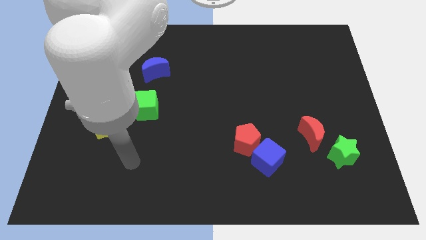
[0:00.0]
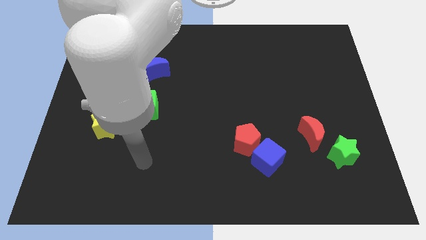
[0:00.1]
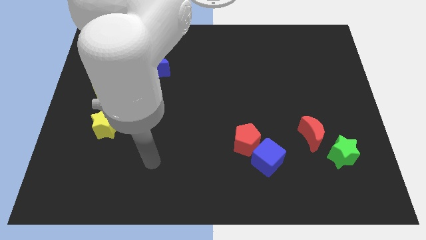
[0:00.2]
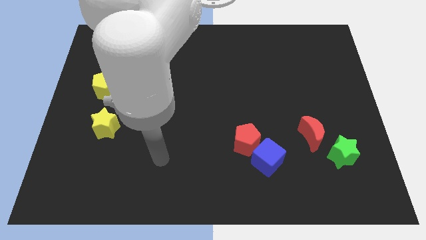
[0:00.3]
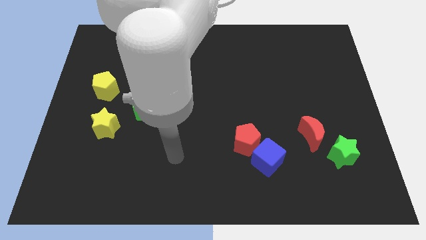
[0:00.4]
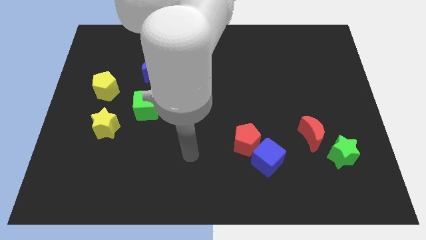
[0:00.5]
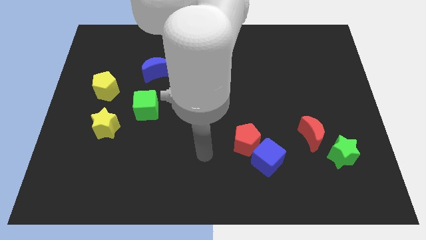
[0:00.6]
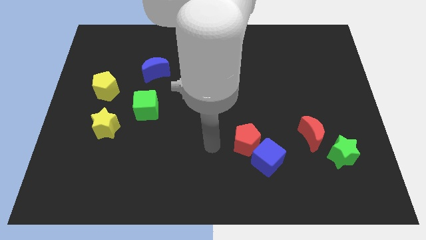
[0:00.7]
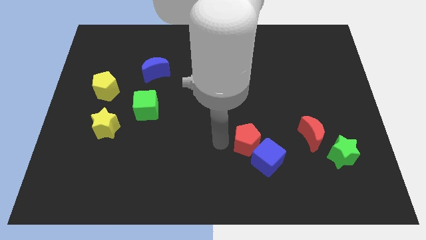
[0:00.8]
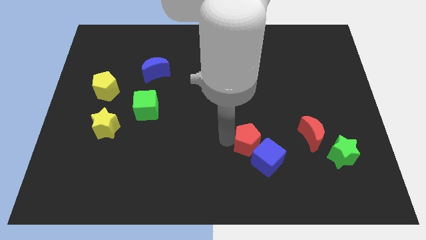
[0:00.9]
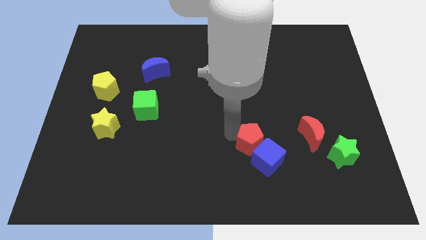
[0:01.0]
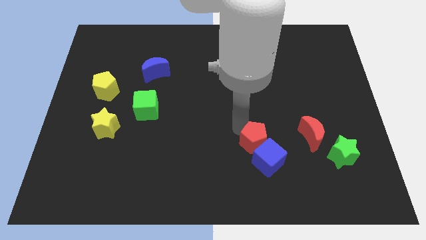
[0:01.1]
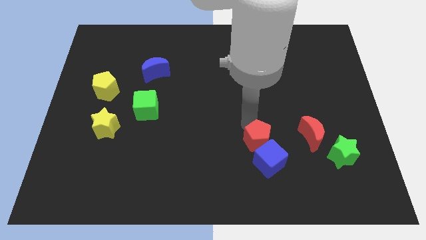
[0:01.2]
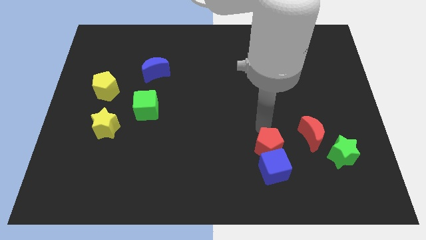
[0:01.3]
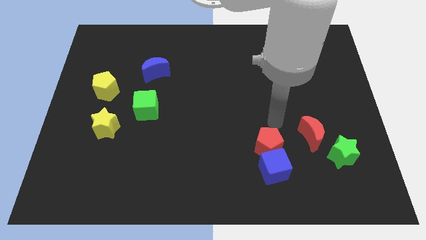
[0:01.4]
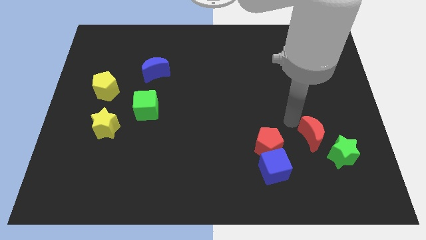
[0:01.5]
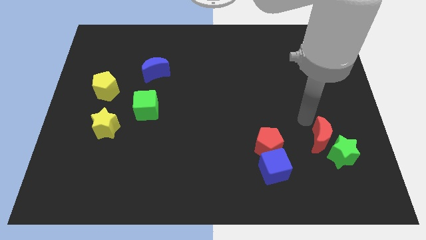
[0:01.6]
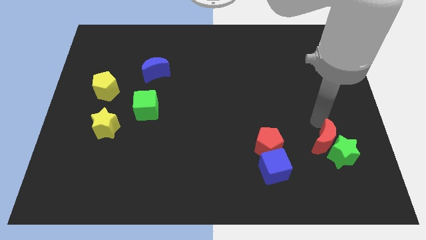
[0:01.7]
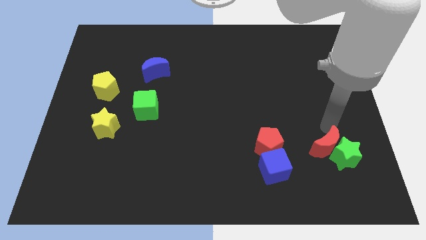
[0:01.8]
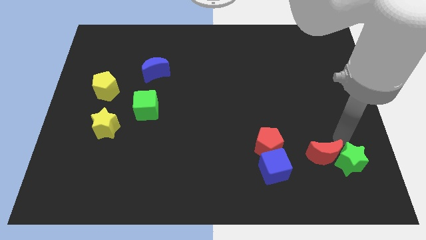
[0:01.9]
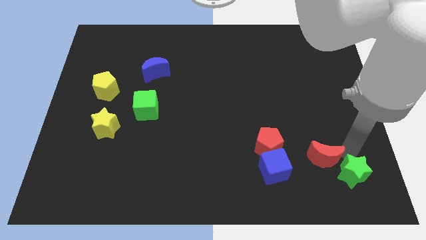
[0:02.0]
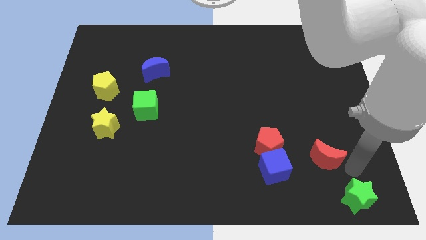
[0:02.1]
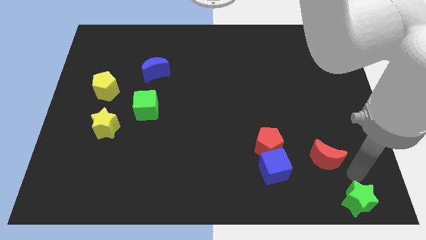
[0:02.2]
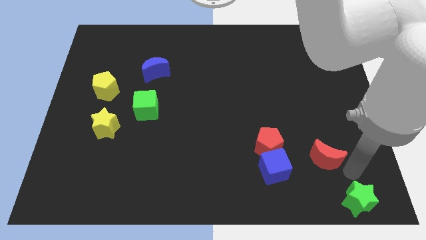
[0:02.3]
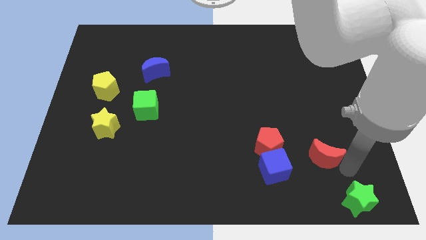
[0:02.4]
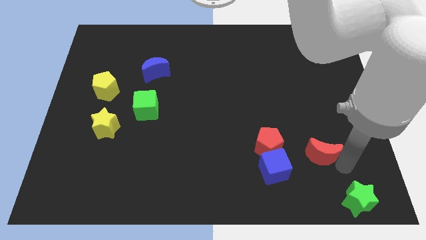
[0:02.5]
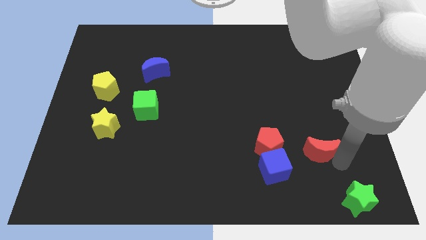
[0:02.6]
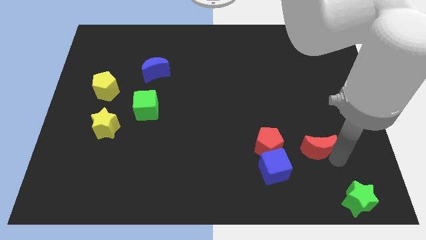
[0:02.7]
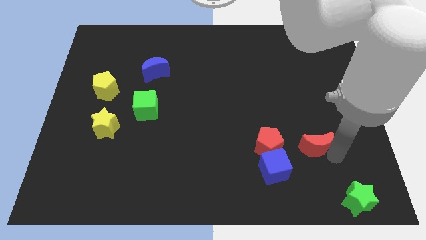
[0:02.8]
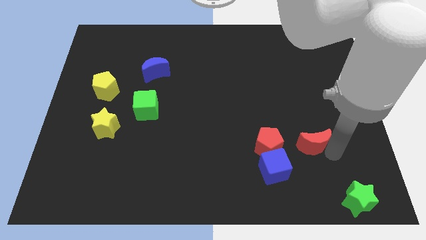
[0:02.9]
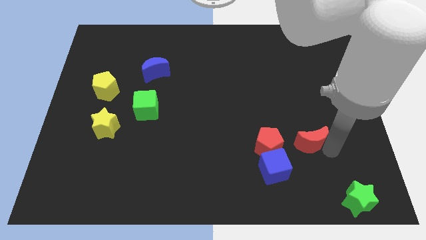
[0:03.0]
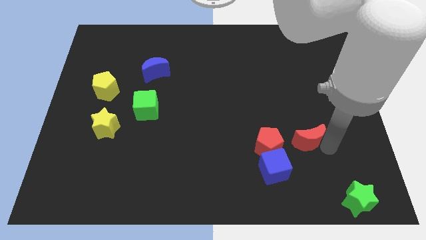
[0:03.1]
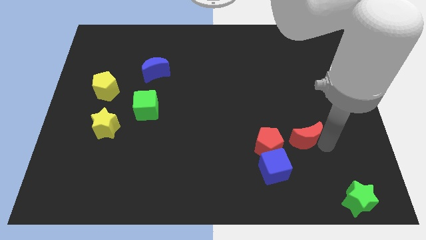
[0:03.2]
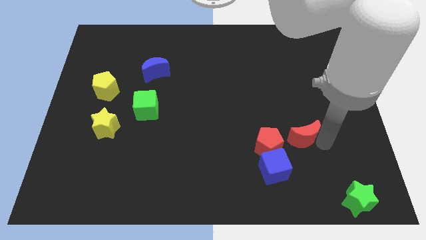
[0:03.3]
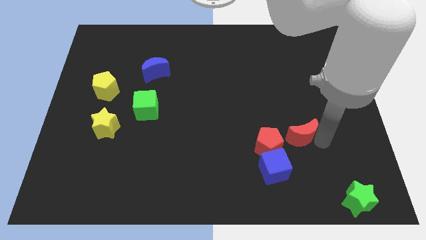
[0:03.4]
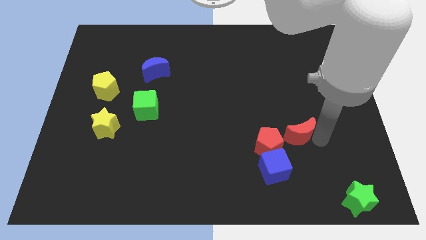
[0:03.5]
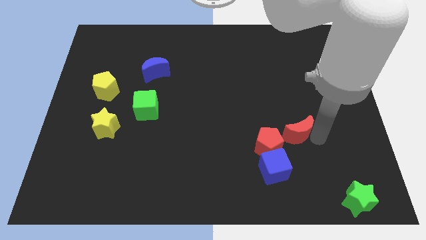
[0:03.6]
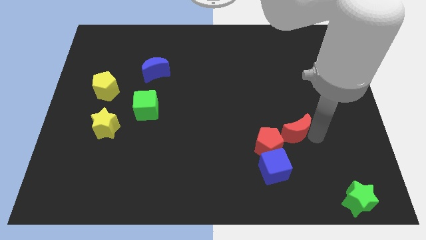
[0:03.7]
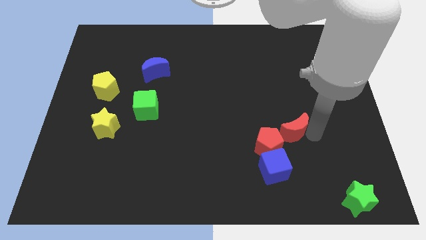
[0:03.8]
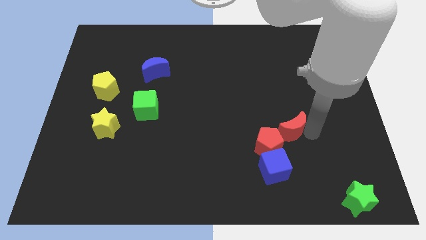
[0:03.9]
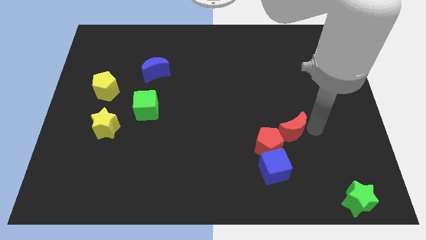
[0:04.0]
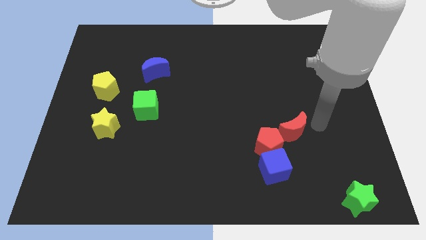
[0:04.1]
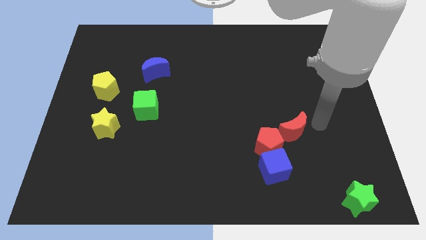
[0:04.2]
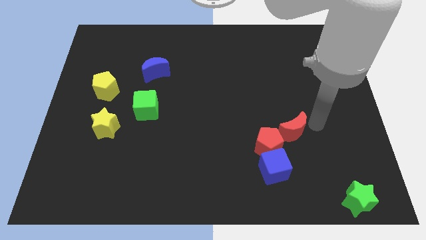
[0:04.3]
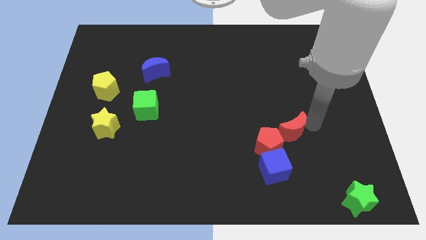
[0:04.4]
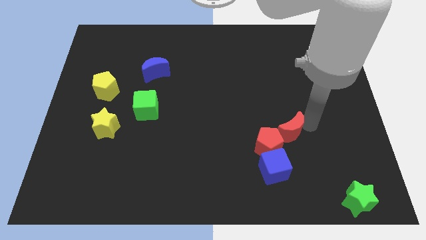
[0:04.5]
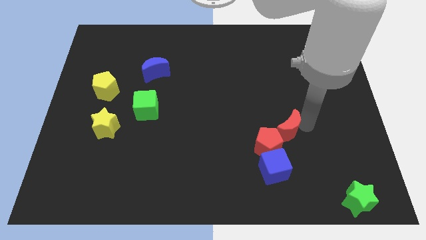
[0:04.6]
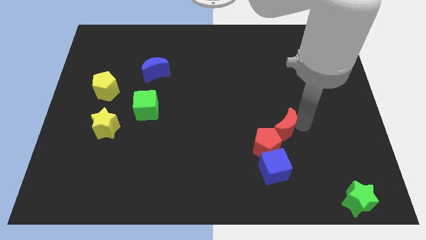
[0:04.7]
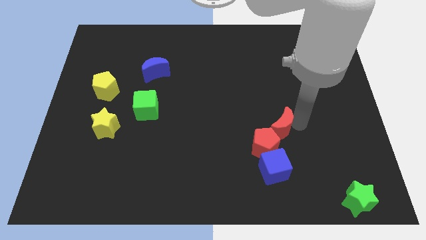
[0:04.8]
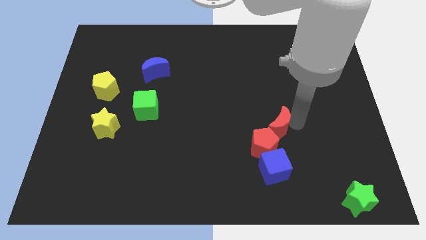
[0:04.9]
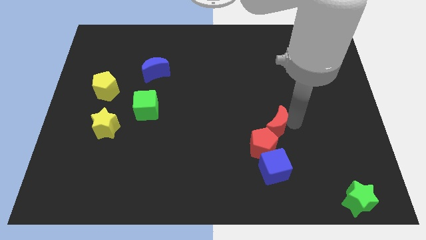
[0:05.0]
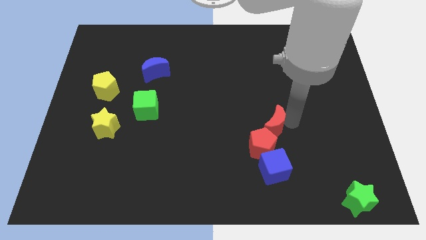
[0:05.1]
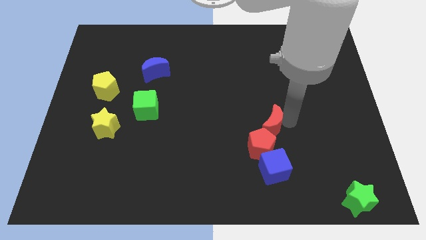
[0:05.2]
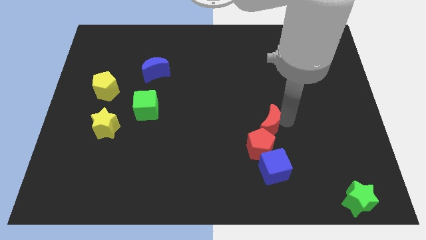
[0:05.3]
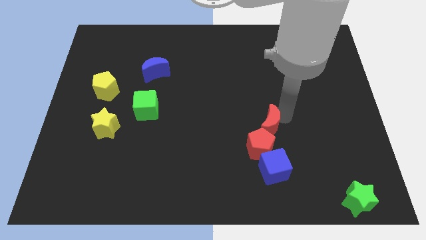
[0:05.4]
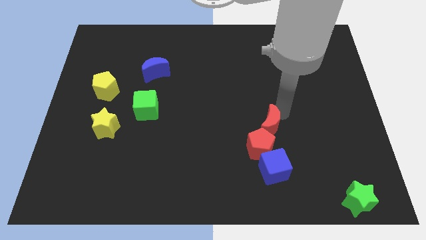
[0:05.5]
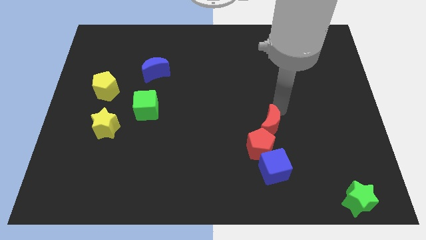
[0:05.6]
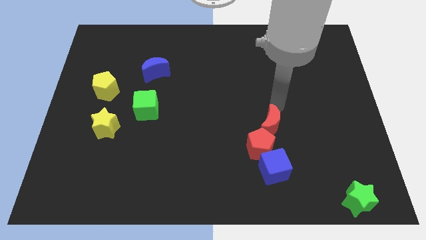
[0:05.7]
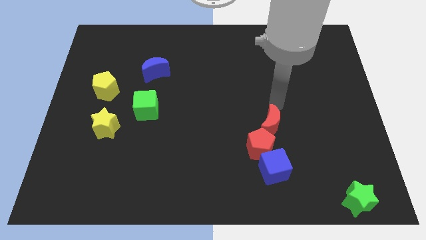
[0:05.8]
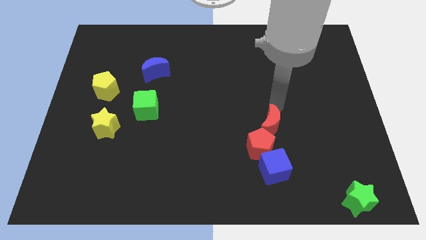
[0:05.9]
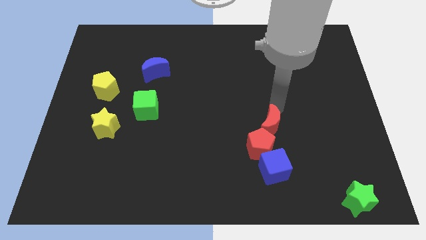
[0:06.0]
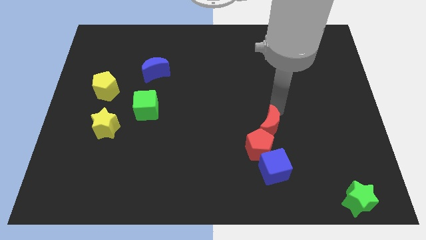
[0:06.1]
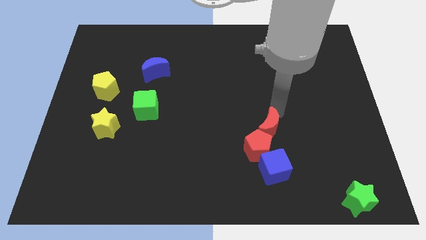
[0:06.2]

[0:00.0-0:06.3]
slide the red moon towards the red pentagon
